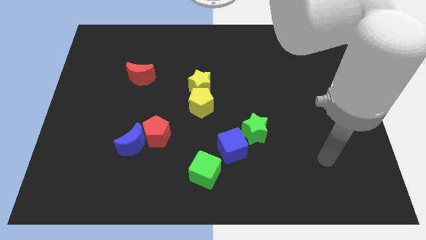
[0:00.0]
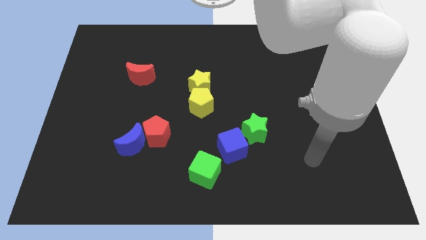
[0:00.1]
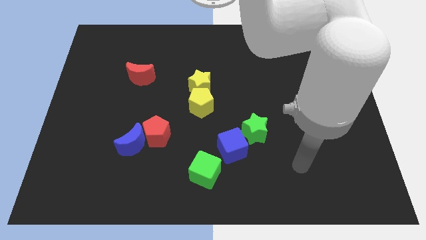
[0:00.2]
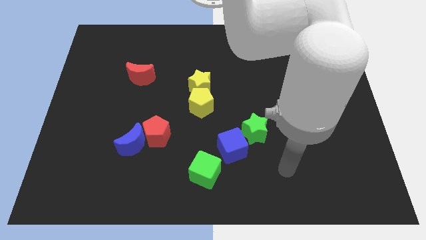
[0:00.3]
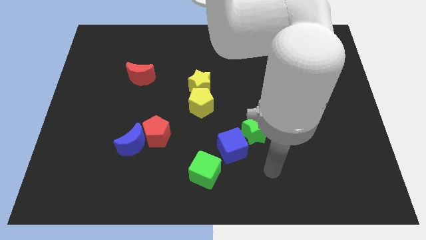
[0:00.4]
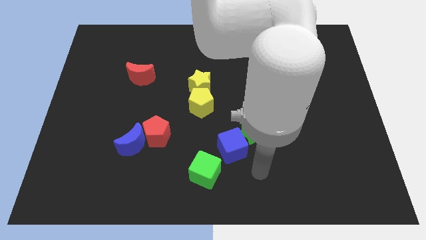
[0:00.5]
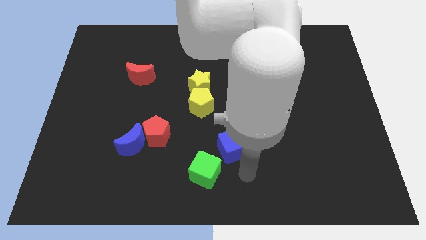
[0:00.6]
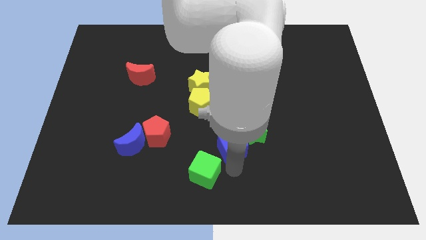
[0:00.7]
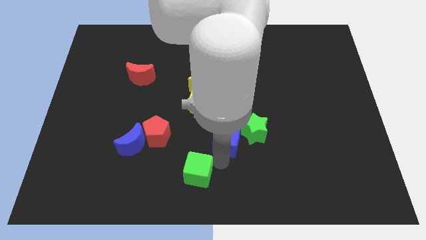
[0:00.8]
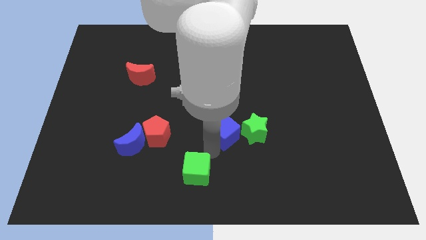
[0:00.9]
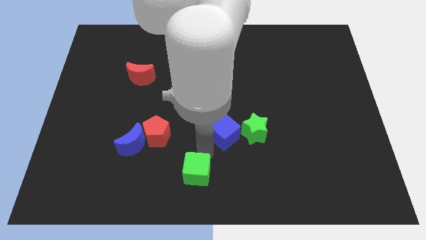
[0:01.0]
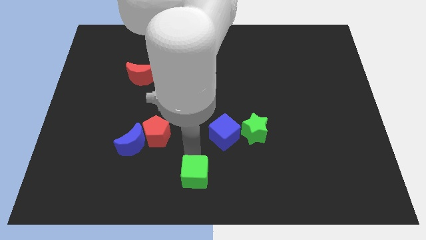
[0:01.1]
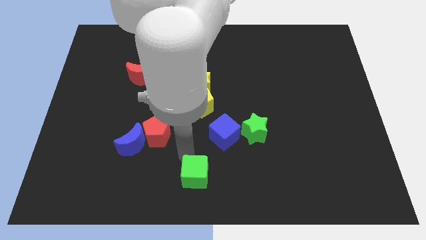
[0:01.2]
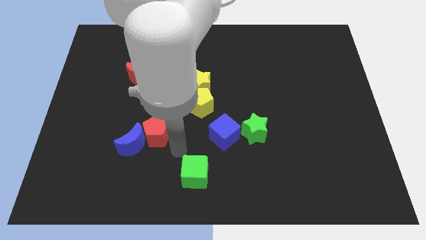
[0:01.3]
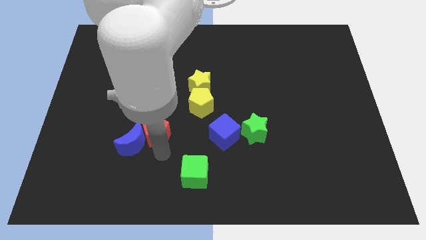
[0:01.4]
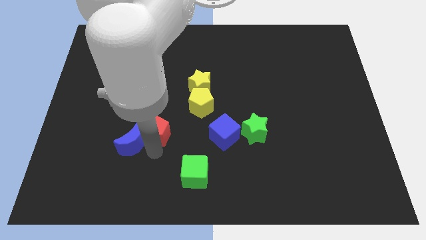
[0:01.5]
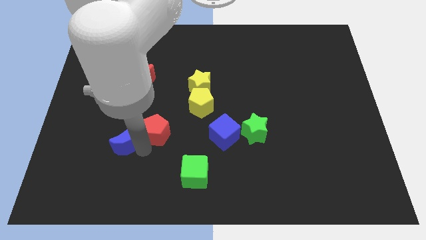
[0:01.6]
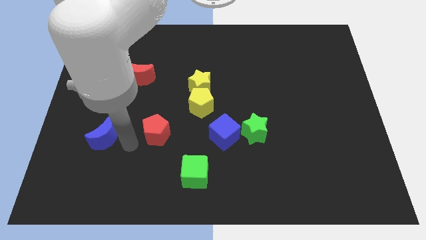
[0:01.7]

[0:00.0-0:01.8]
pull the red pentagon apart from the blue moon

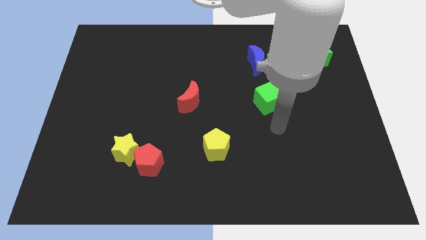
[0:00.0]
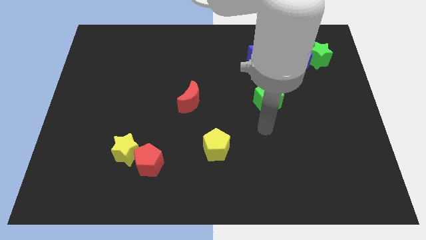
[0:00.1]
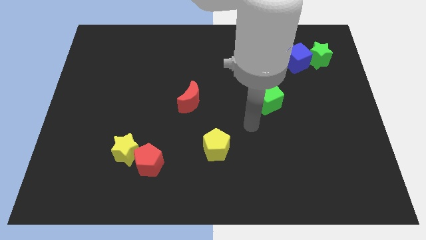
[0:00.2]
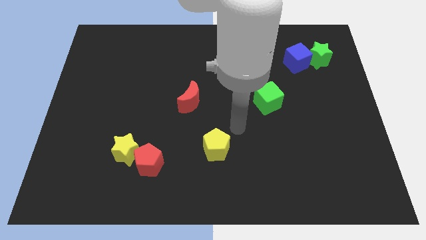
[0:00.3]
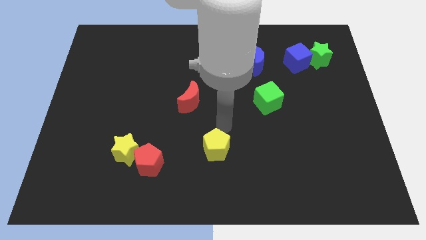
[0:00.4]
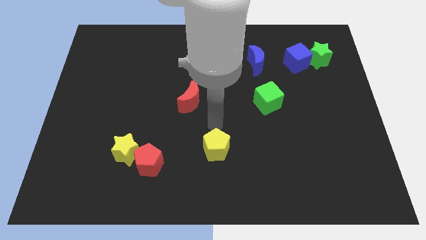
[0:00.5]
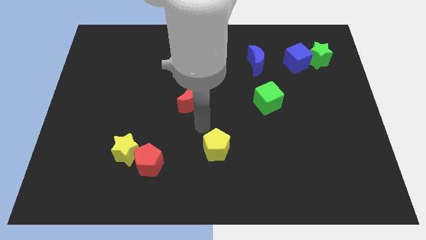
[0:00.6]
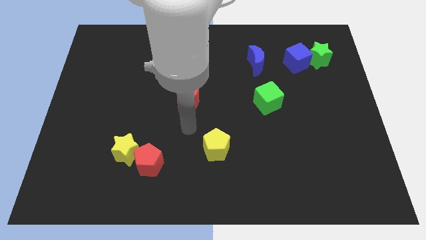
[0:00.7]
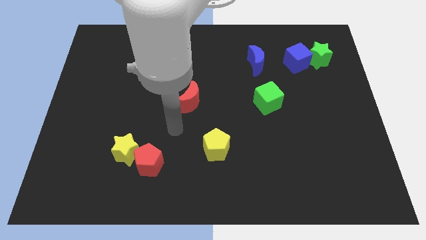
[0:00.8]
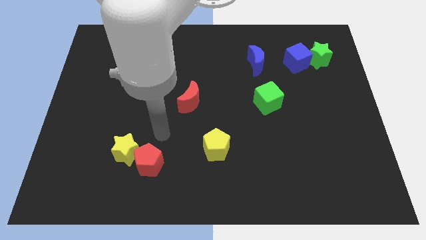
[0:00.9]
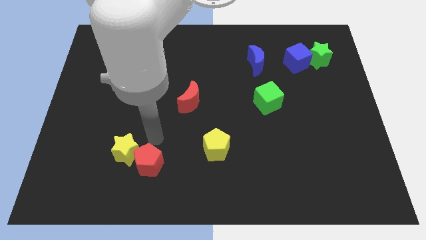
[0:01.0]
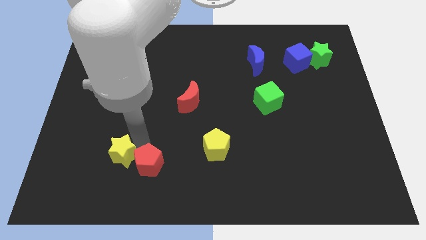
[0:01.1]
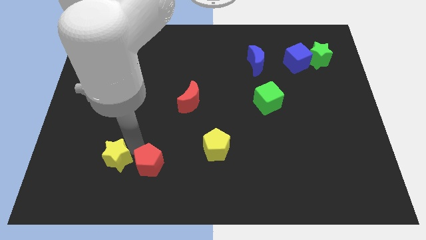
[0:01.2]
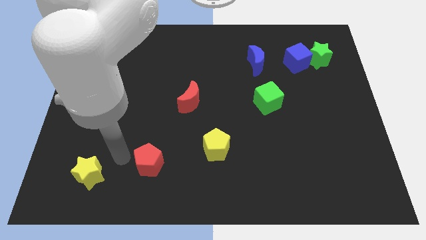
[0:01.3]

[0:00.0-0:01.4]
move the red pentagon away from the yellow star

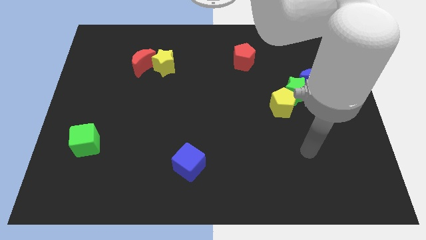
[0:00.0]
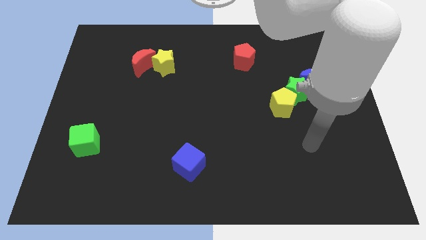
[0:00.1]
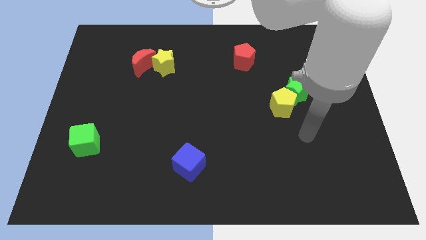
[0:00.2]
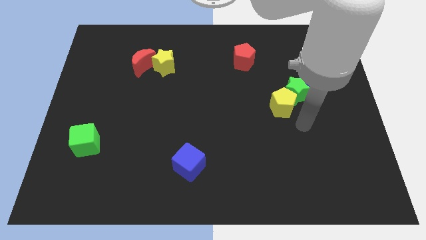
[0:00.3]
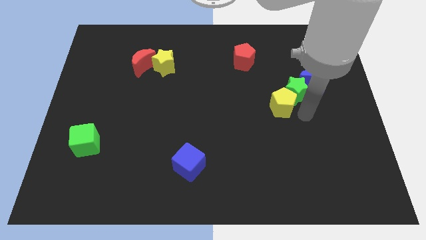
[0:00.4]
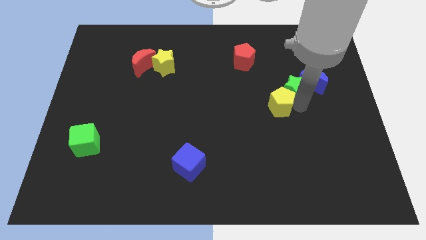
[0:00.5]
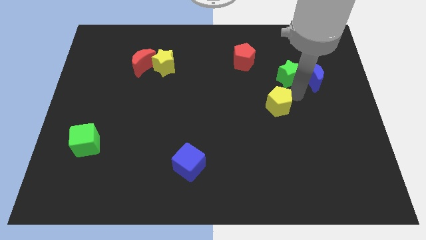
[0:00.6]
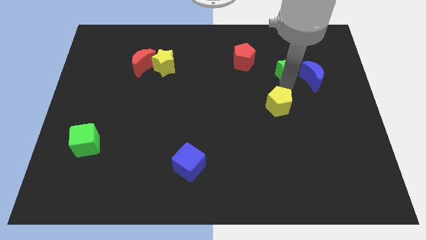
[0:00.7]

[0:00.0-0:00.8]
pull the yellow pentagon apart from the green star

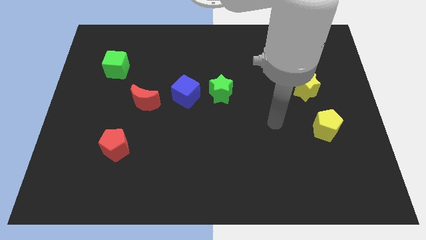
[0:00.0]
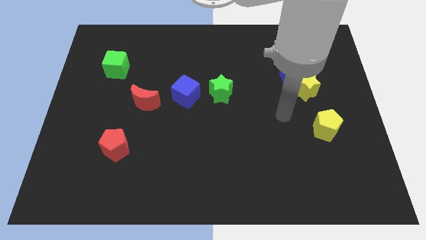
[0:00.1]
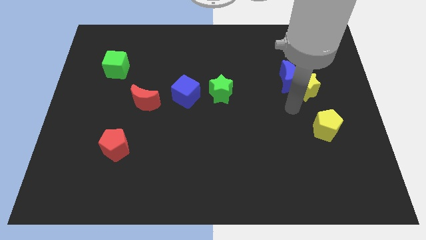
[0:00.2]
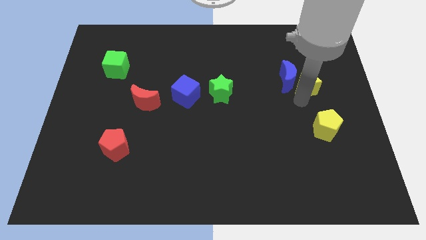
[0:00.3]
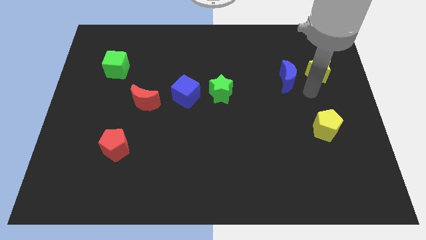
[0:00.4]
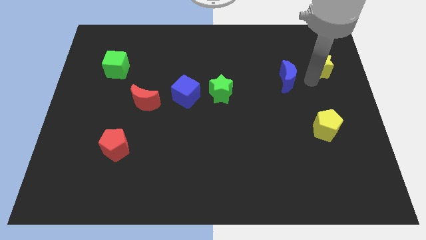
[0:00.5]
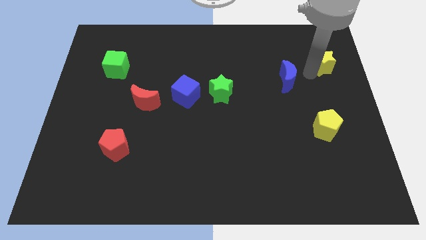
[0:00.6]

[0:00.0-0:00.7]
pull the blue moon apart from the yellow star

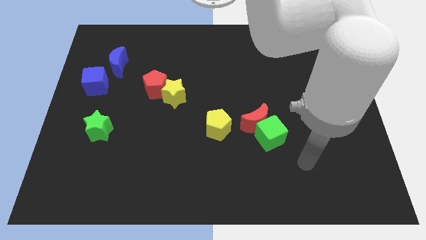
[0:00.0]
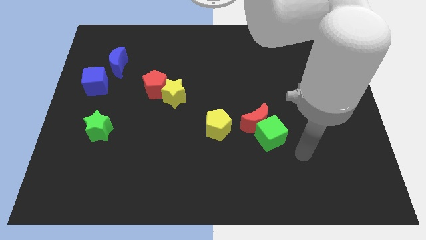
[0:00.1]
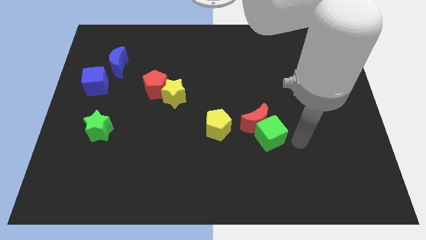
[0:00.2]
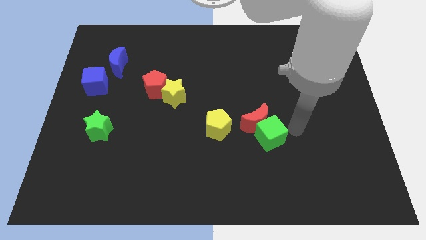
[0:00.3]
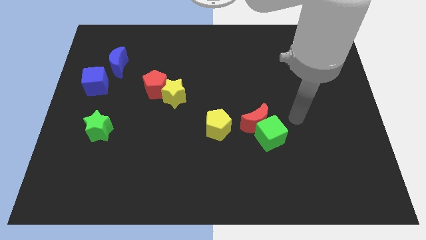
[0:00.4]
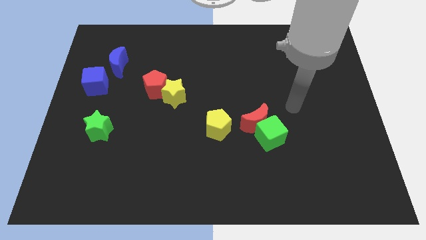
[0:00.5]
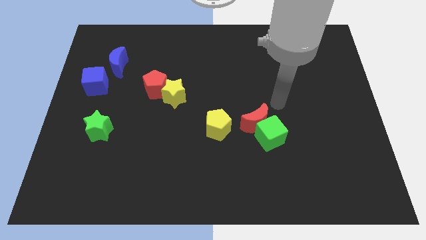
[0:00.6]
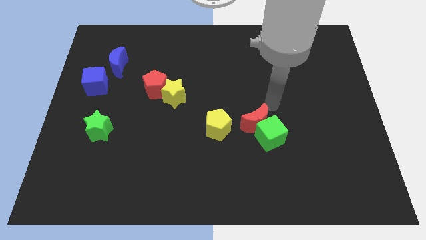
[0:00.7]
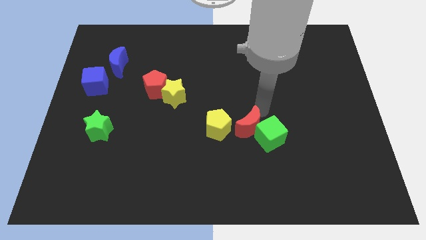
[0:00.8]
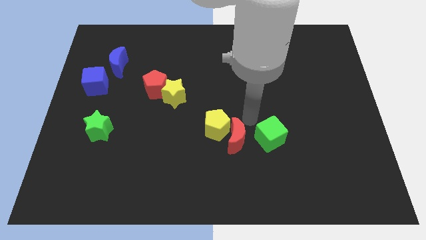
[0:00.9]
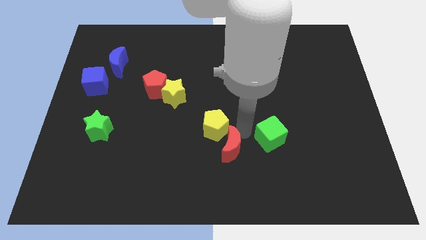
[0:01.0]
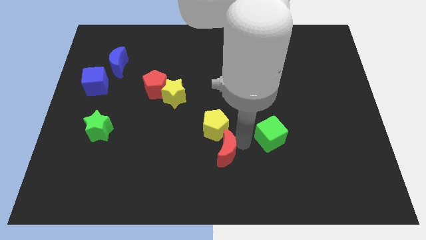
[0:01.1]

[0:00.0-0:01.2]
separate the green cube from the red moon

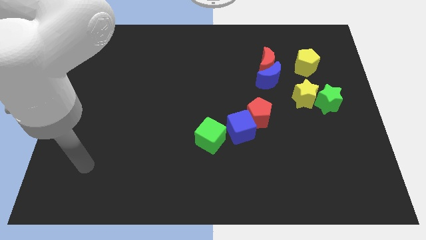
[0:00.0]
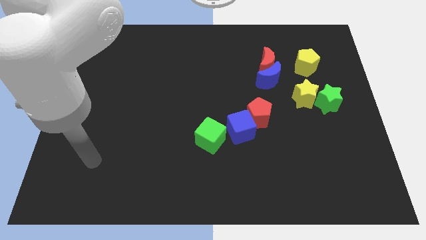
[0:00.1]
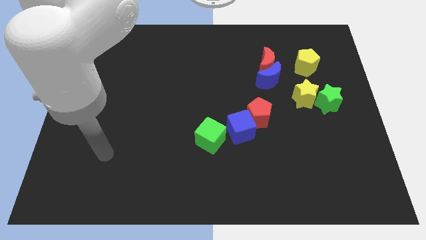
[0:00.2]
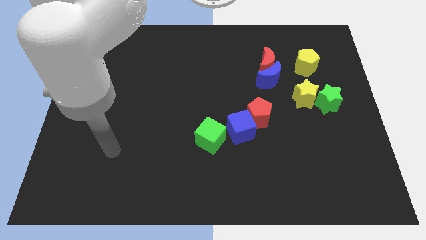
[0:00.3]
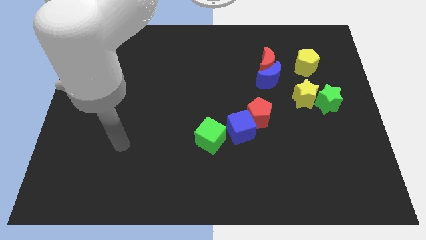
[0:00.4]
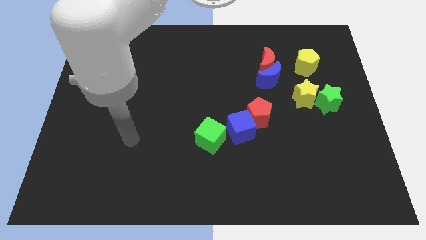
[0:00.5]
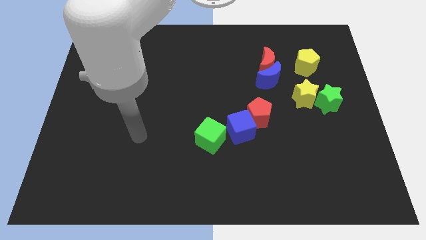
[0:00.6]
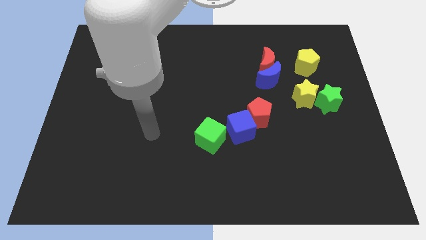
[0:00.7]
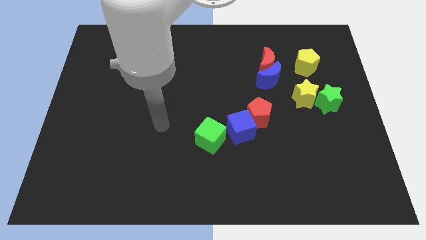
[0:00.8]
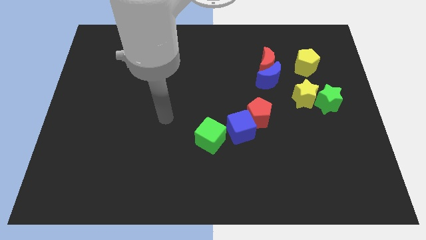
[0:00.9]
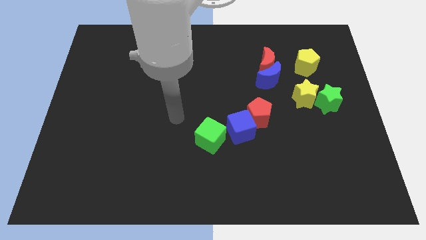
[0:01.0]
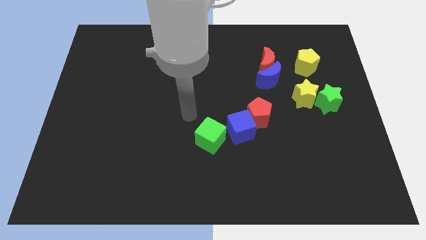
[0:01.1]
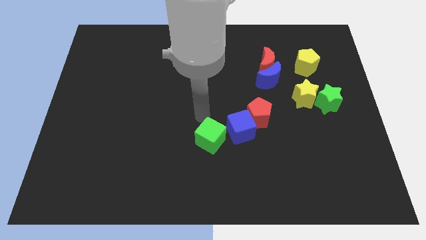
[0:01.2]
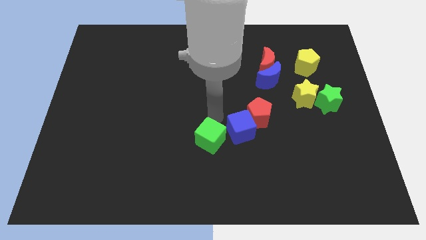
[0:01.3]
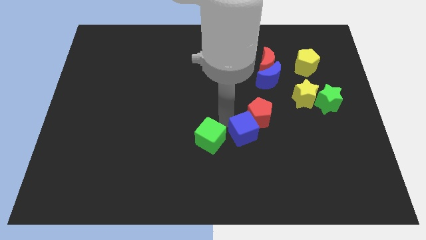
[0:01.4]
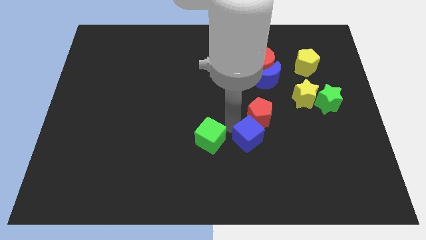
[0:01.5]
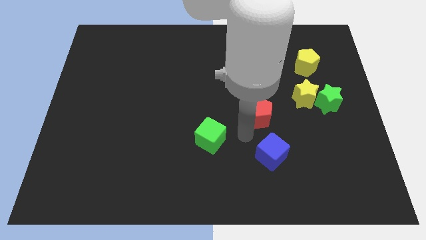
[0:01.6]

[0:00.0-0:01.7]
separate the red pentagon from the blue cube

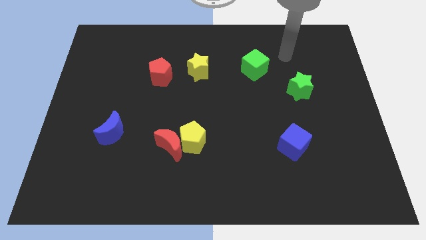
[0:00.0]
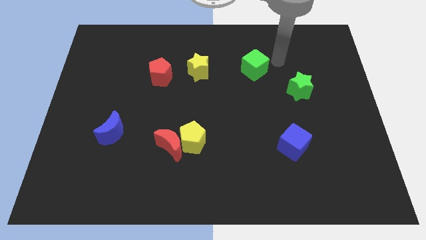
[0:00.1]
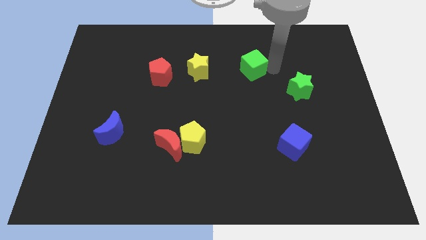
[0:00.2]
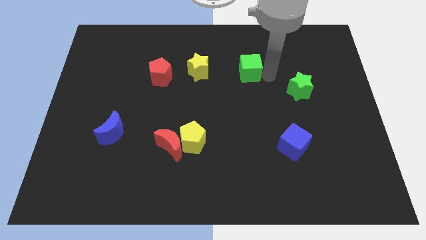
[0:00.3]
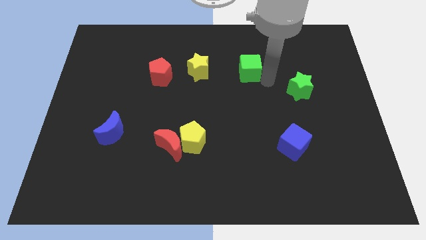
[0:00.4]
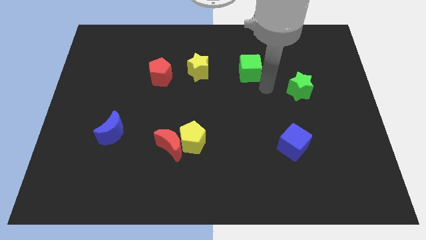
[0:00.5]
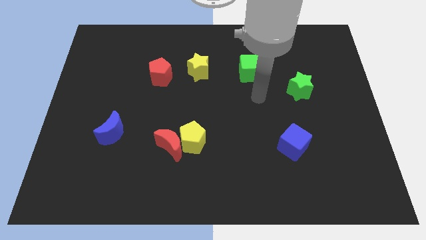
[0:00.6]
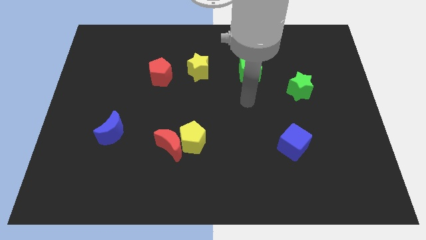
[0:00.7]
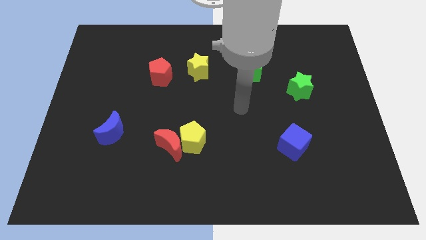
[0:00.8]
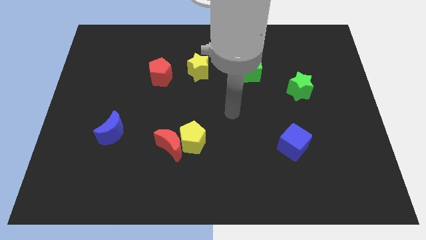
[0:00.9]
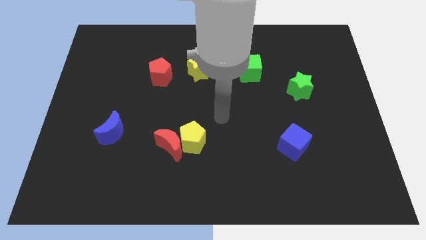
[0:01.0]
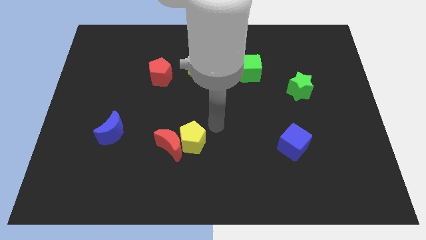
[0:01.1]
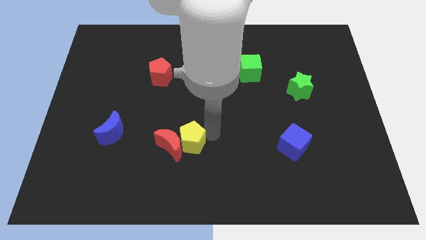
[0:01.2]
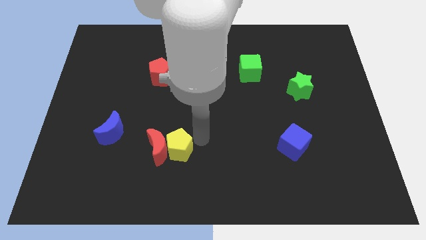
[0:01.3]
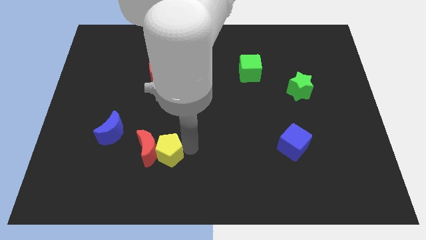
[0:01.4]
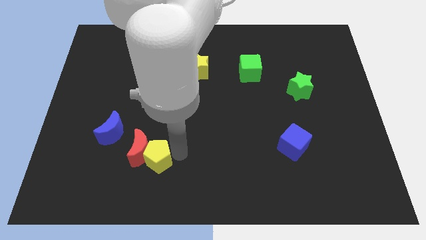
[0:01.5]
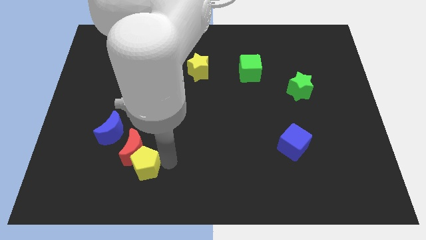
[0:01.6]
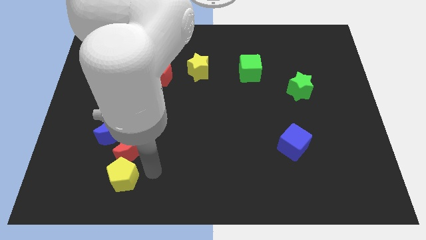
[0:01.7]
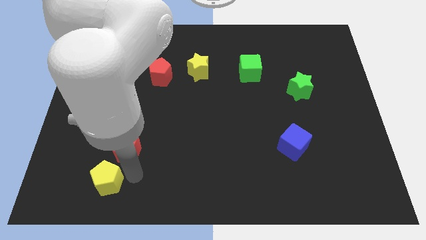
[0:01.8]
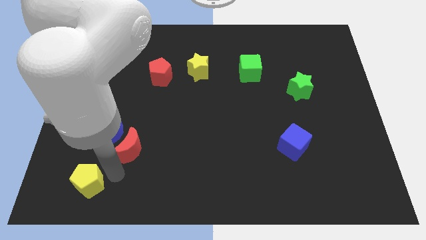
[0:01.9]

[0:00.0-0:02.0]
move the red moon away from the yellow pentagon
